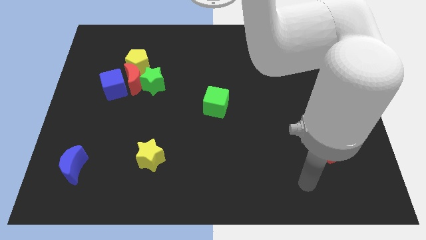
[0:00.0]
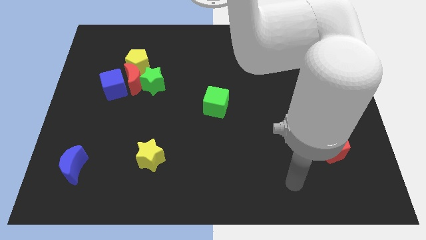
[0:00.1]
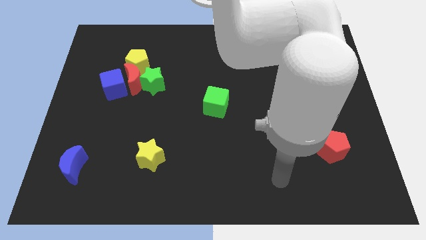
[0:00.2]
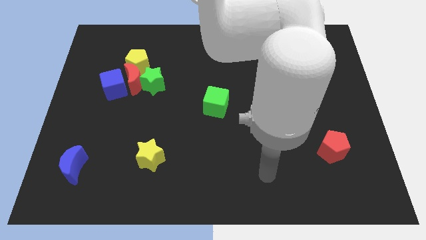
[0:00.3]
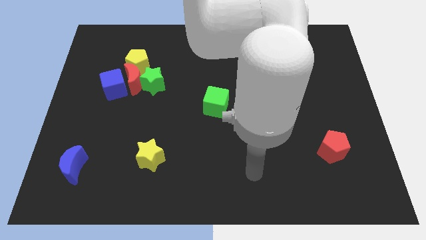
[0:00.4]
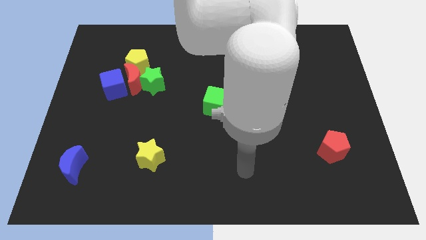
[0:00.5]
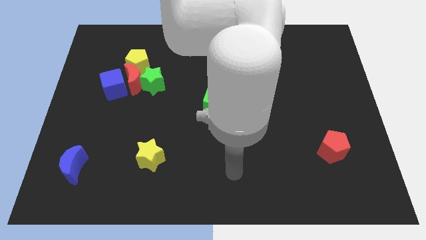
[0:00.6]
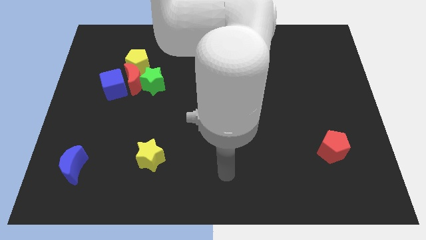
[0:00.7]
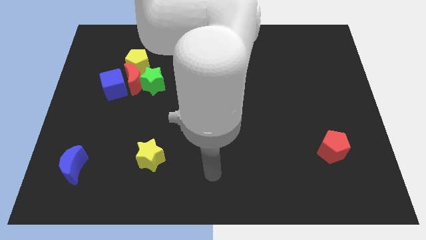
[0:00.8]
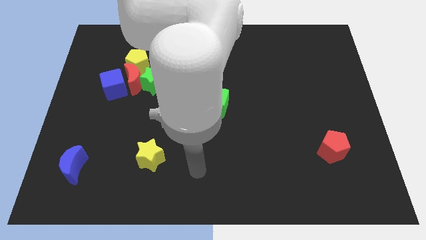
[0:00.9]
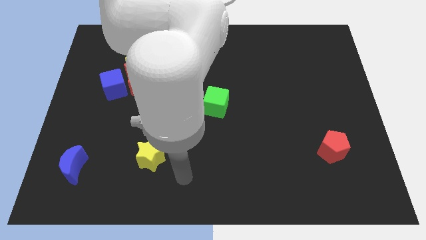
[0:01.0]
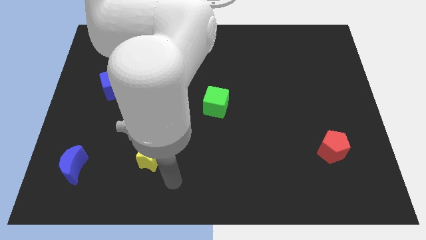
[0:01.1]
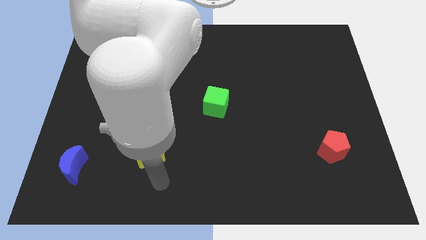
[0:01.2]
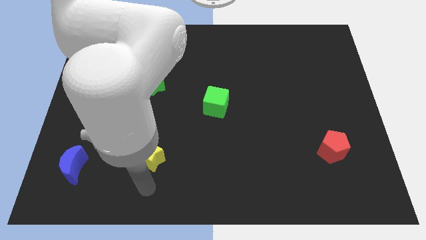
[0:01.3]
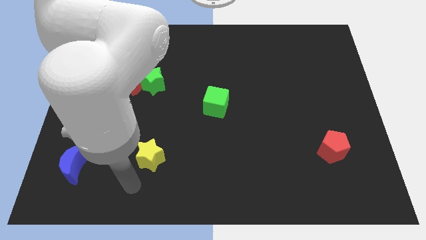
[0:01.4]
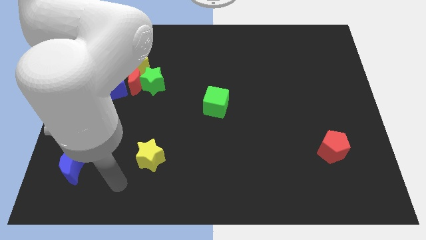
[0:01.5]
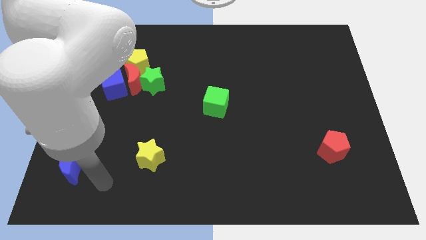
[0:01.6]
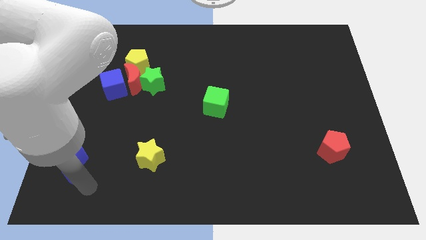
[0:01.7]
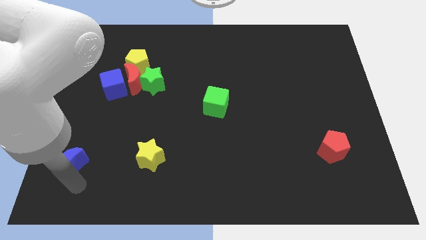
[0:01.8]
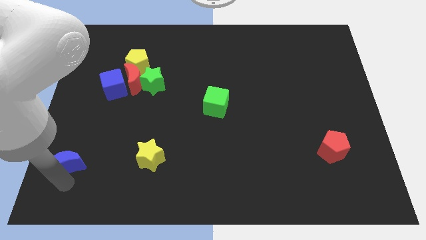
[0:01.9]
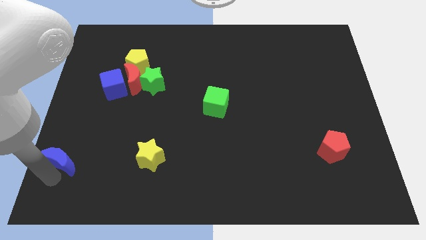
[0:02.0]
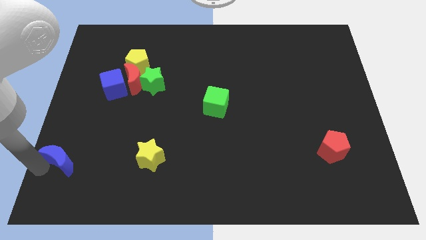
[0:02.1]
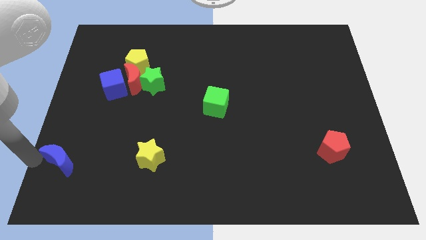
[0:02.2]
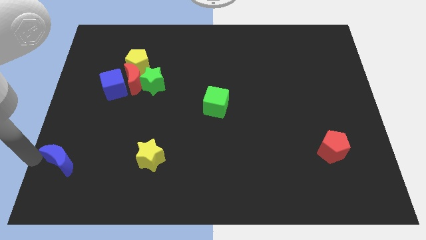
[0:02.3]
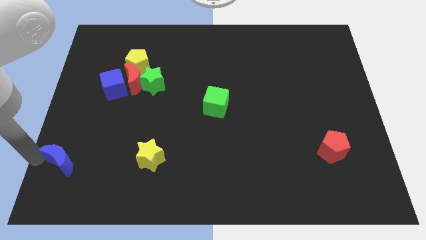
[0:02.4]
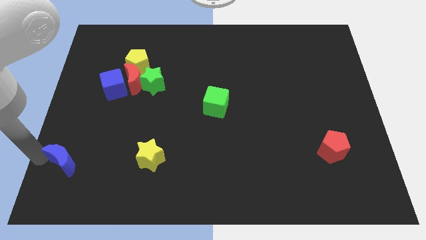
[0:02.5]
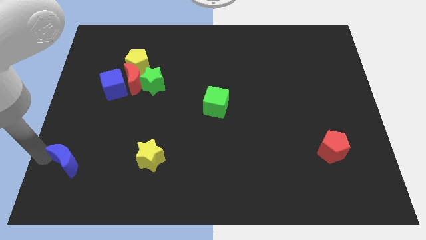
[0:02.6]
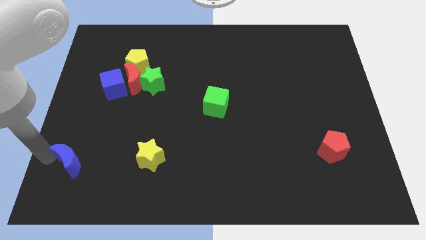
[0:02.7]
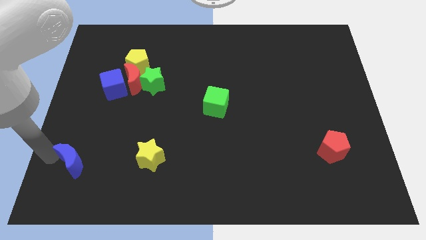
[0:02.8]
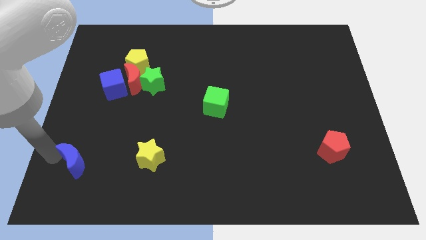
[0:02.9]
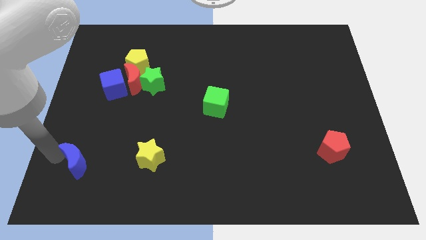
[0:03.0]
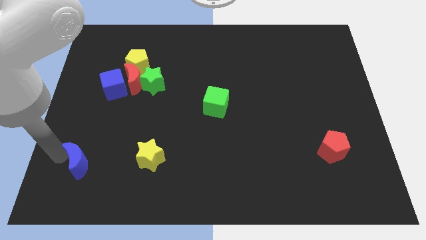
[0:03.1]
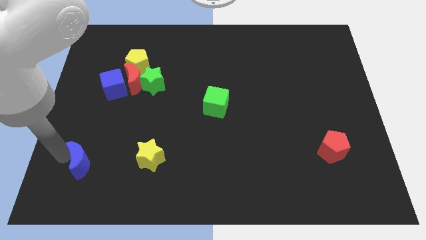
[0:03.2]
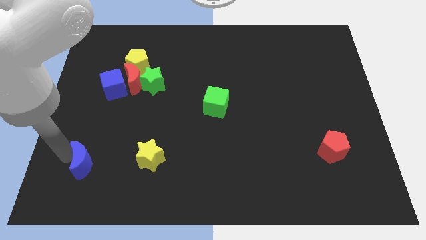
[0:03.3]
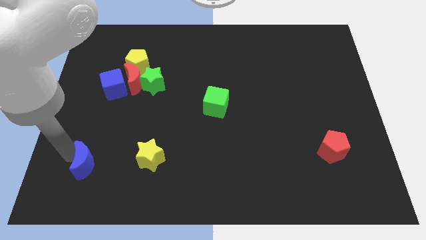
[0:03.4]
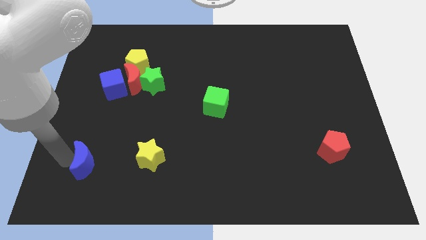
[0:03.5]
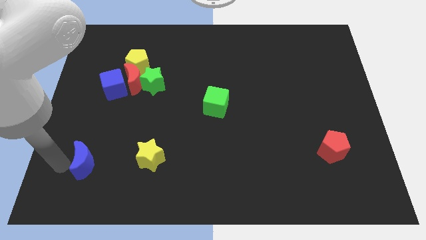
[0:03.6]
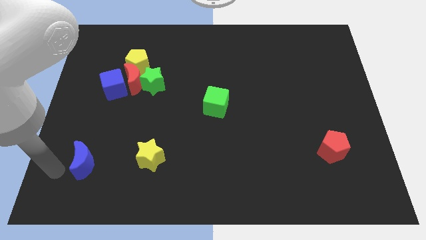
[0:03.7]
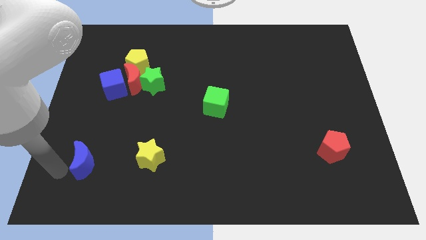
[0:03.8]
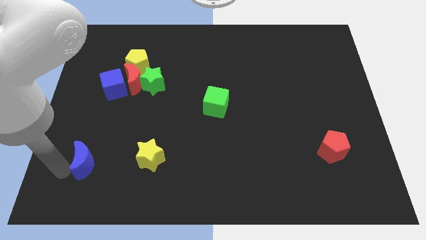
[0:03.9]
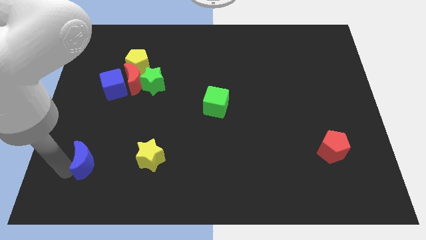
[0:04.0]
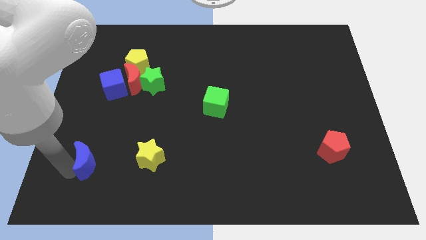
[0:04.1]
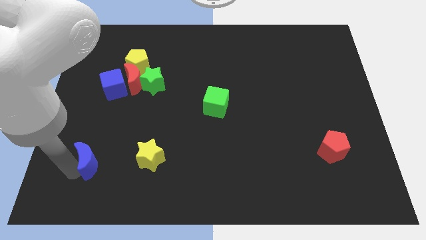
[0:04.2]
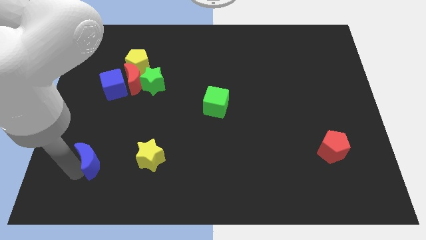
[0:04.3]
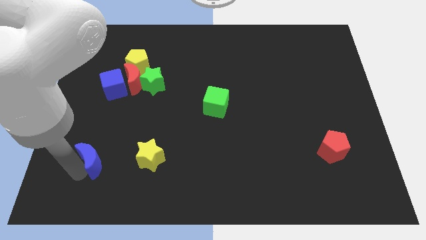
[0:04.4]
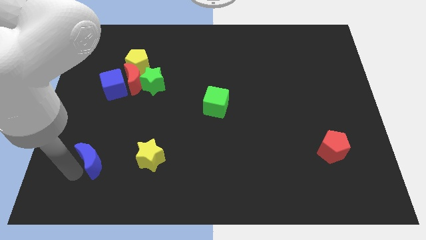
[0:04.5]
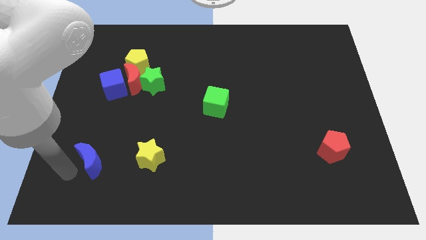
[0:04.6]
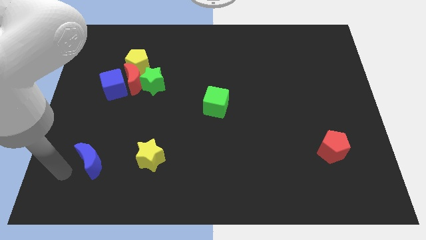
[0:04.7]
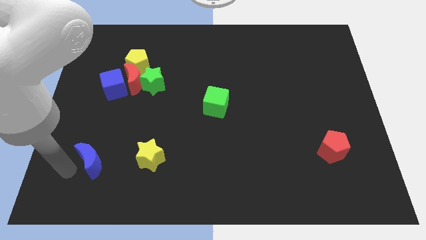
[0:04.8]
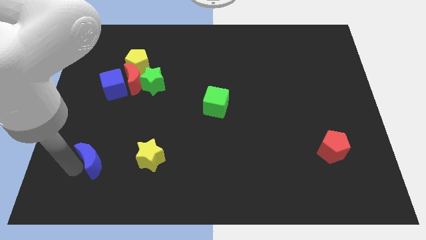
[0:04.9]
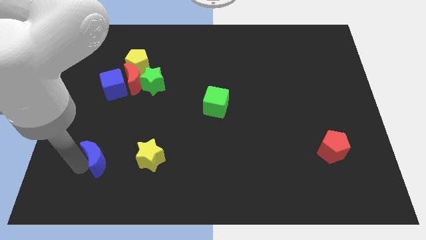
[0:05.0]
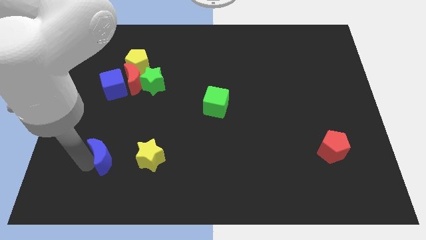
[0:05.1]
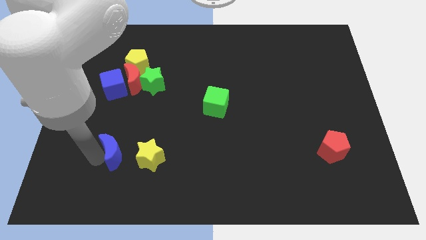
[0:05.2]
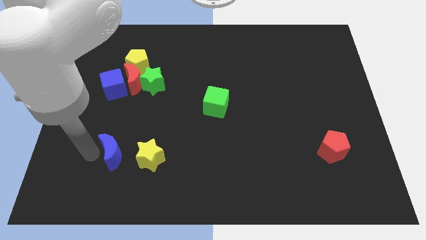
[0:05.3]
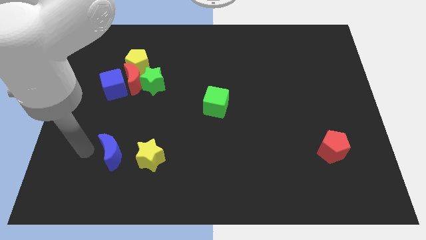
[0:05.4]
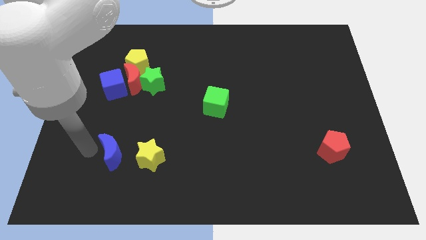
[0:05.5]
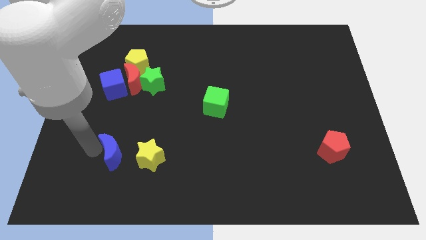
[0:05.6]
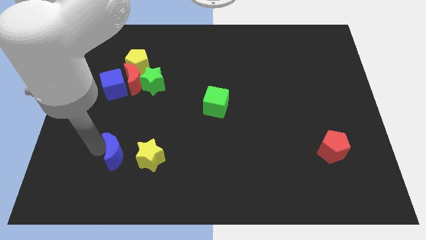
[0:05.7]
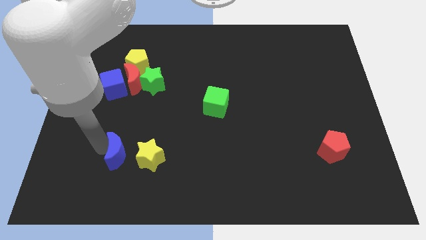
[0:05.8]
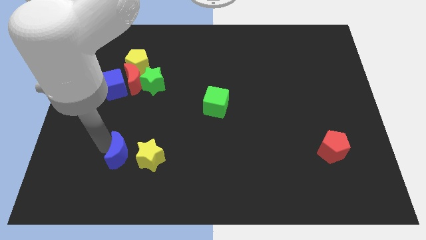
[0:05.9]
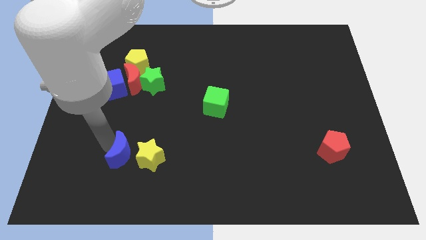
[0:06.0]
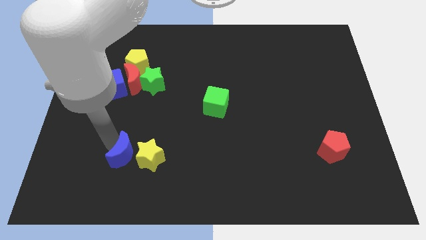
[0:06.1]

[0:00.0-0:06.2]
move the blue moon towards the yellow star
